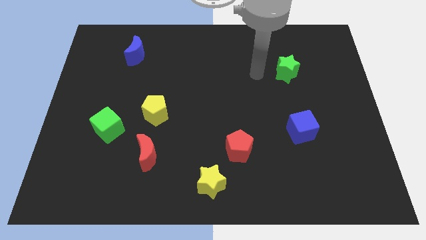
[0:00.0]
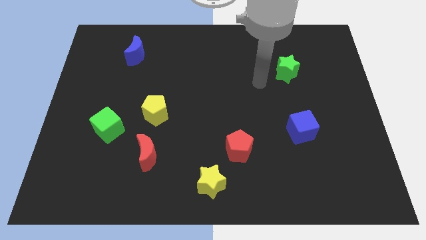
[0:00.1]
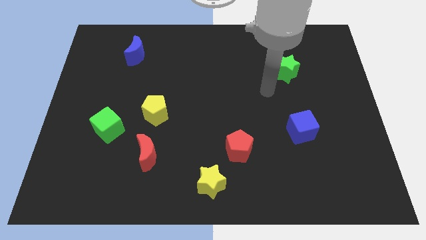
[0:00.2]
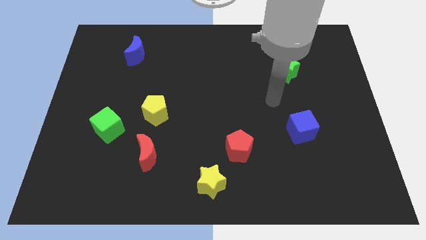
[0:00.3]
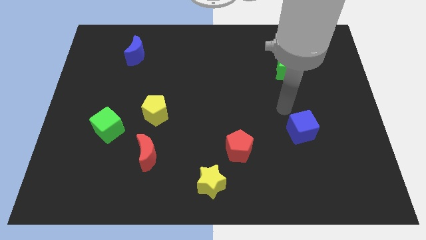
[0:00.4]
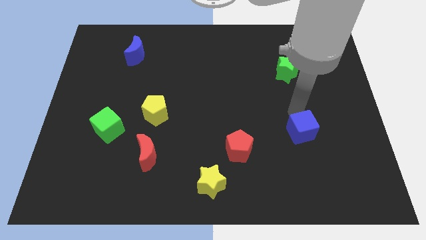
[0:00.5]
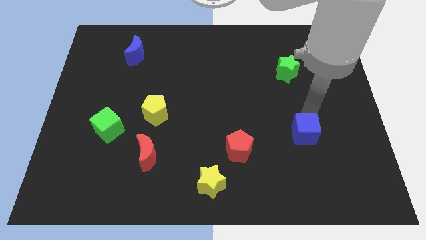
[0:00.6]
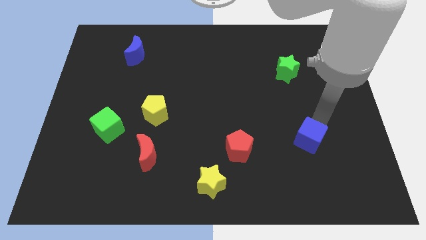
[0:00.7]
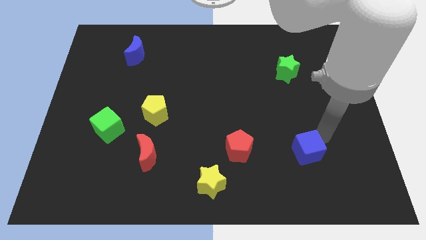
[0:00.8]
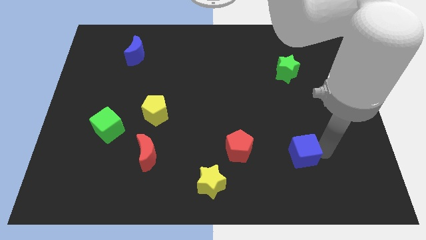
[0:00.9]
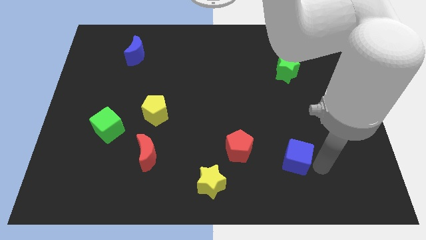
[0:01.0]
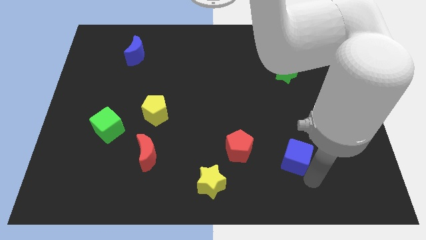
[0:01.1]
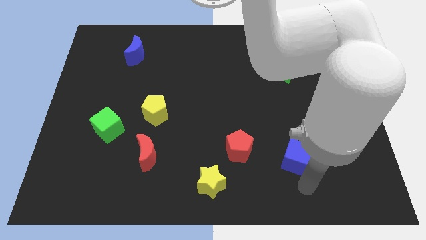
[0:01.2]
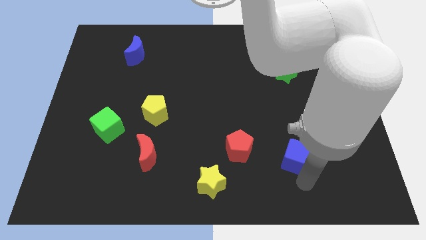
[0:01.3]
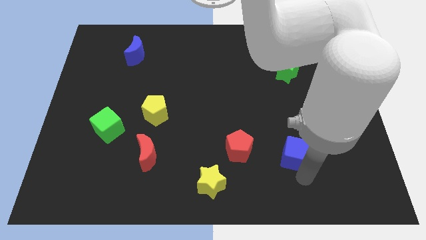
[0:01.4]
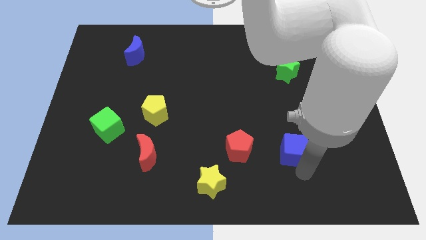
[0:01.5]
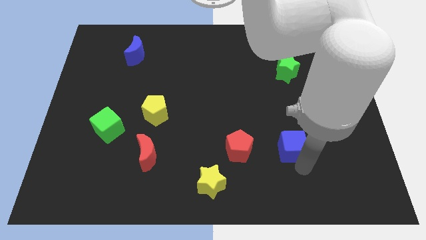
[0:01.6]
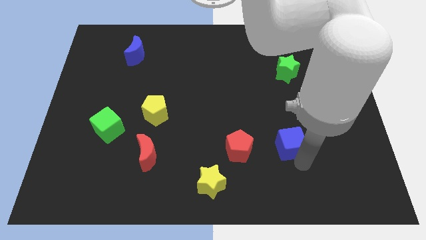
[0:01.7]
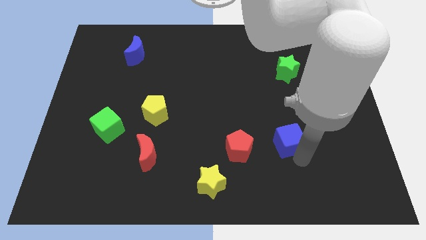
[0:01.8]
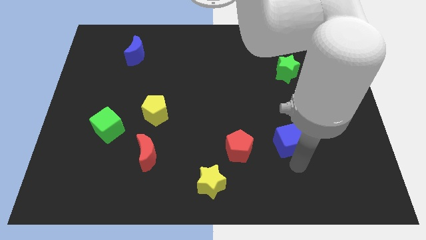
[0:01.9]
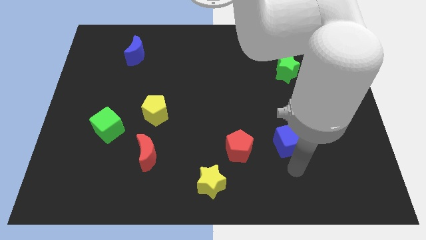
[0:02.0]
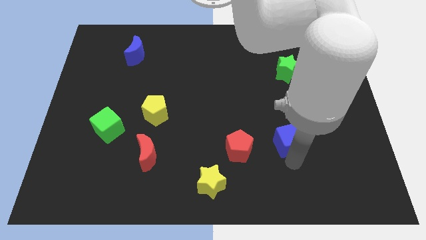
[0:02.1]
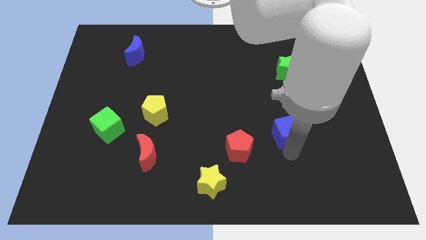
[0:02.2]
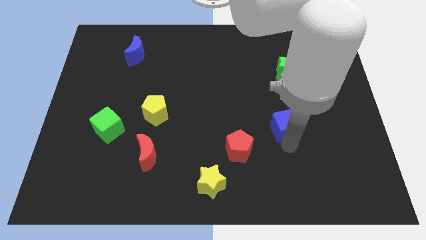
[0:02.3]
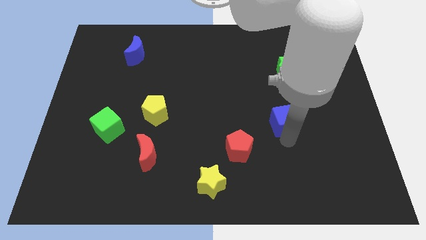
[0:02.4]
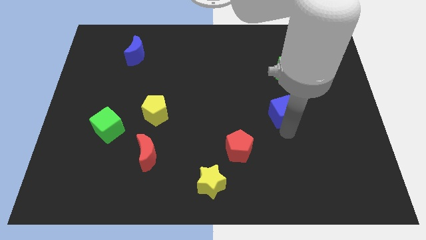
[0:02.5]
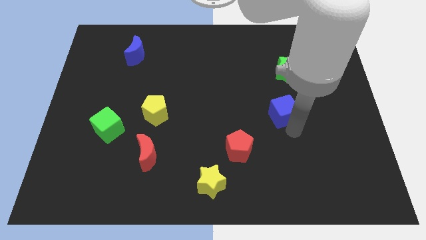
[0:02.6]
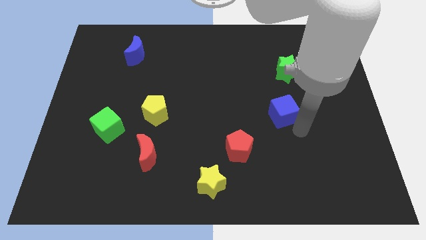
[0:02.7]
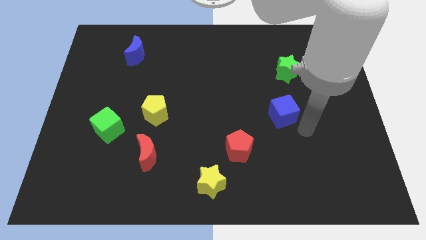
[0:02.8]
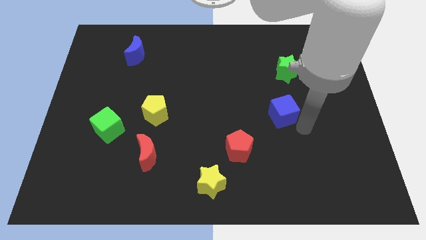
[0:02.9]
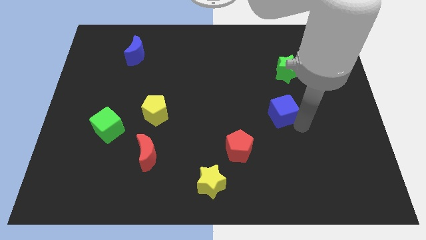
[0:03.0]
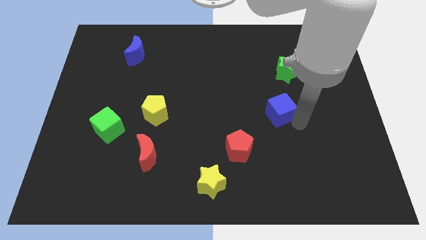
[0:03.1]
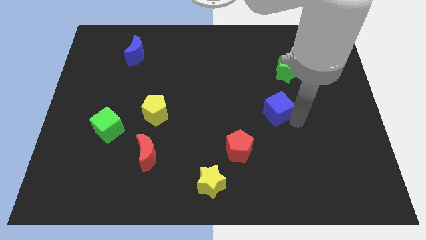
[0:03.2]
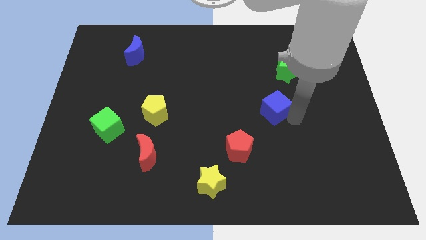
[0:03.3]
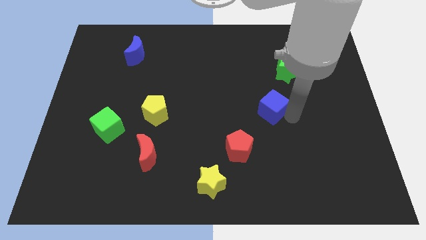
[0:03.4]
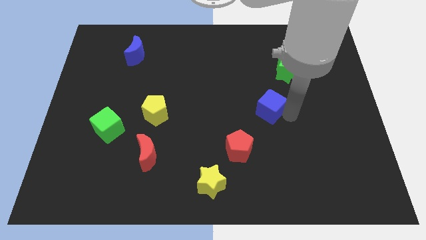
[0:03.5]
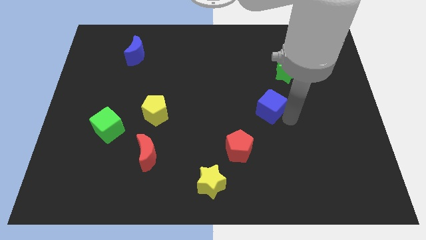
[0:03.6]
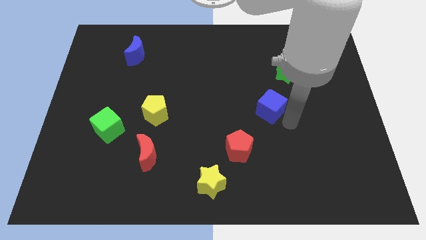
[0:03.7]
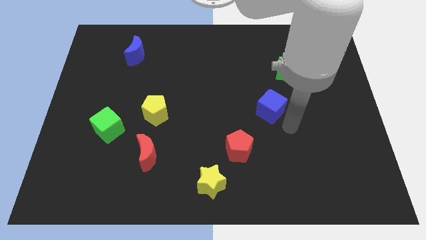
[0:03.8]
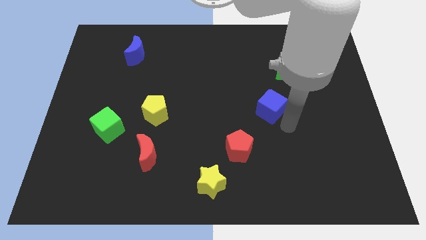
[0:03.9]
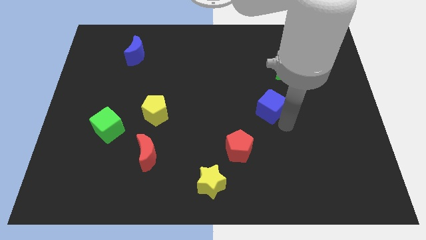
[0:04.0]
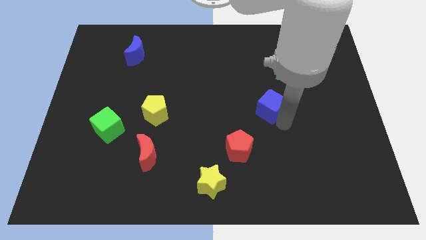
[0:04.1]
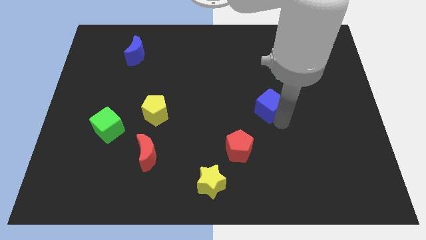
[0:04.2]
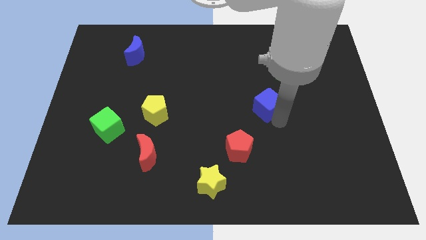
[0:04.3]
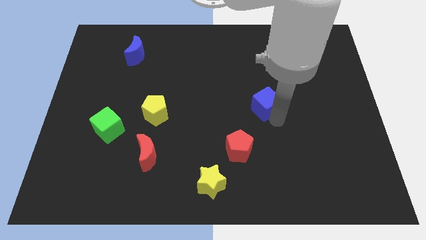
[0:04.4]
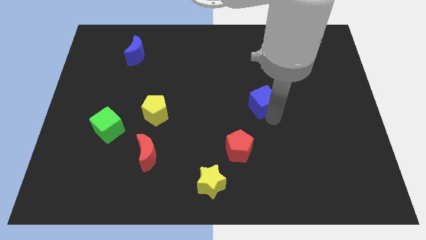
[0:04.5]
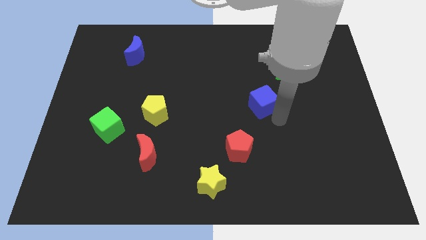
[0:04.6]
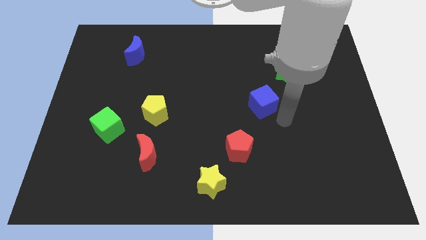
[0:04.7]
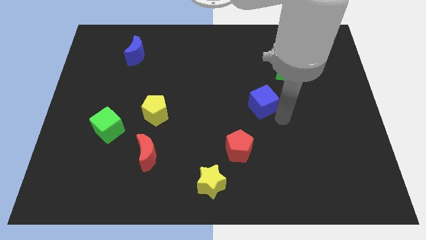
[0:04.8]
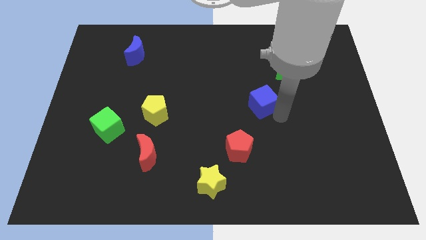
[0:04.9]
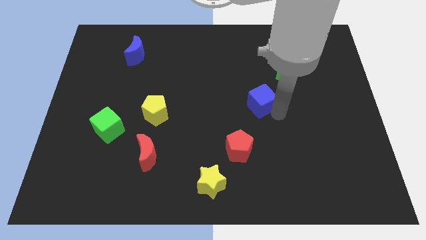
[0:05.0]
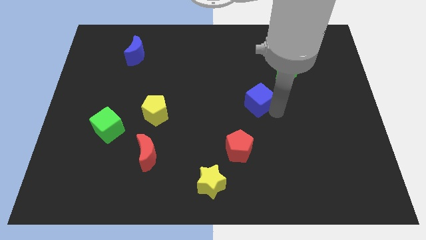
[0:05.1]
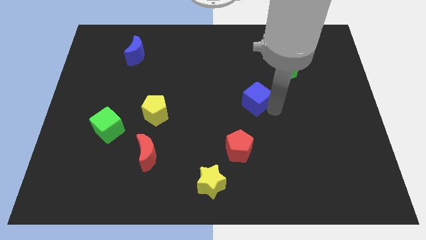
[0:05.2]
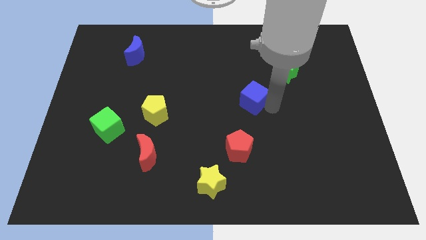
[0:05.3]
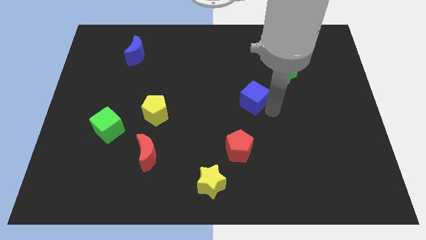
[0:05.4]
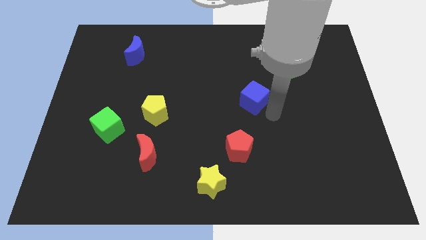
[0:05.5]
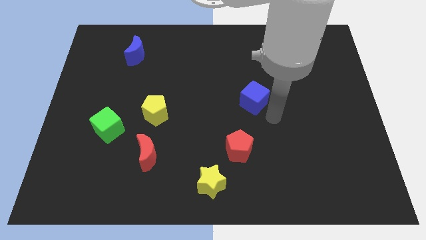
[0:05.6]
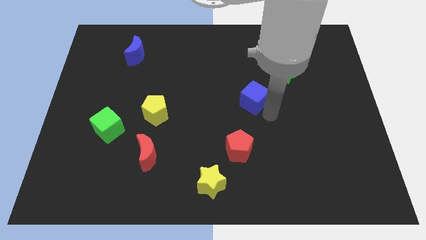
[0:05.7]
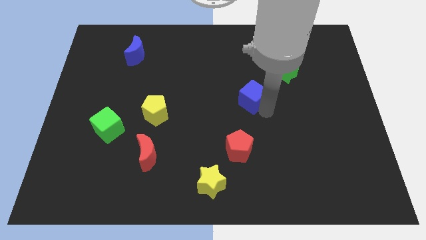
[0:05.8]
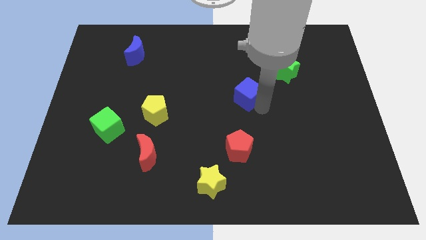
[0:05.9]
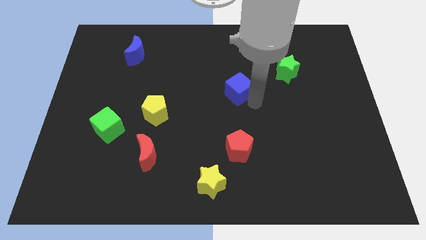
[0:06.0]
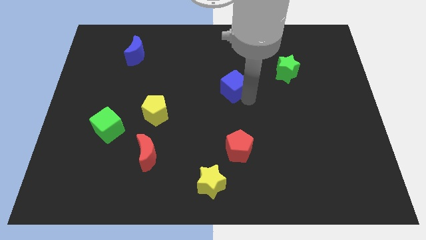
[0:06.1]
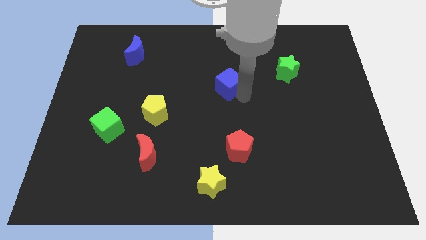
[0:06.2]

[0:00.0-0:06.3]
push the blue cube diagonally up and to the left

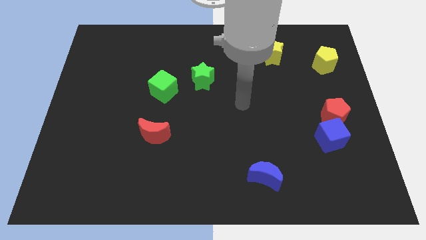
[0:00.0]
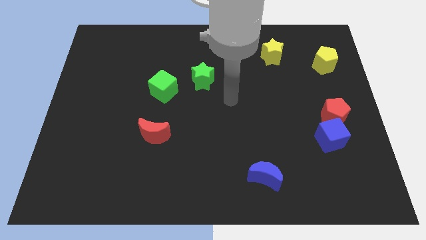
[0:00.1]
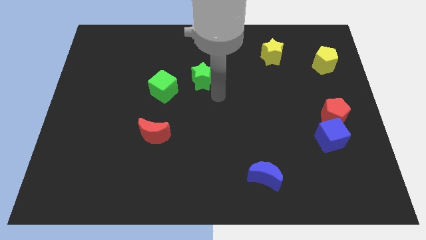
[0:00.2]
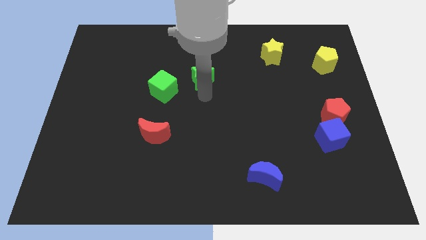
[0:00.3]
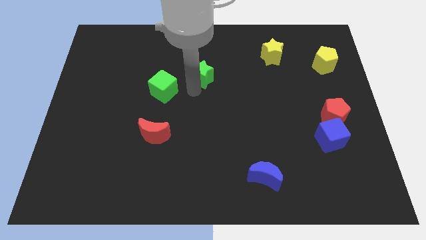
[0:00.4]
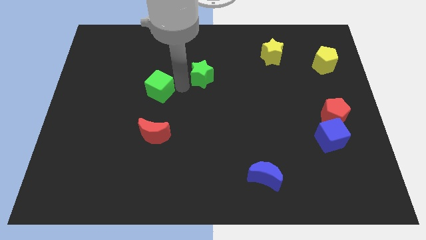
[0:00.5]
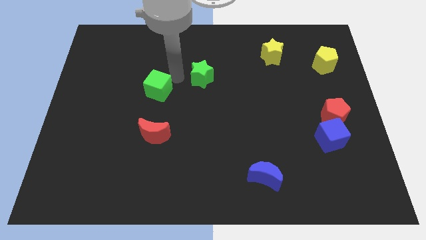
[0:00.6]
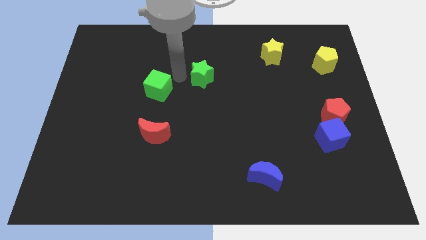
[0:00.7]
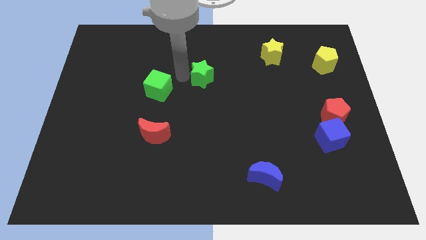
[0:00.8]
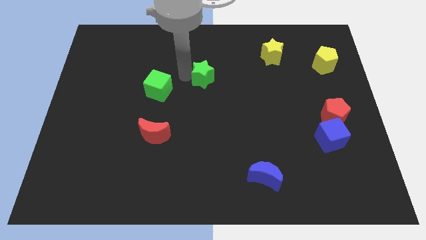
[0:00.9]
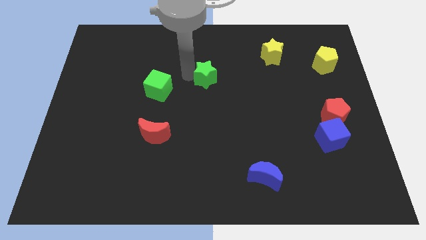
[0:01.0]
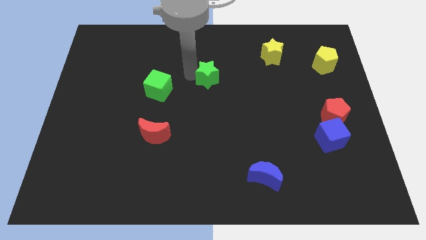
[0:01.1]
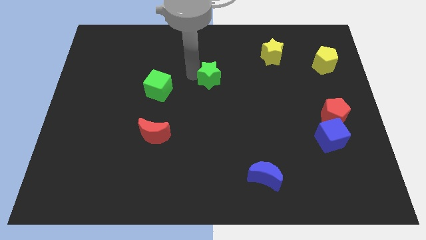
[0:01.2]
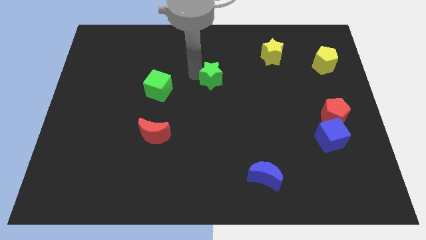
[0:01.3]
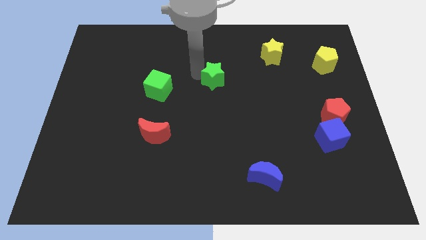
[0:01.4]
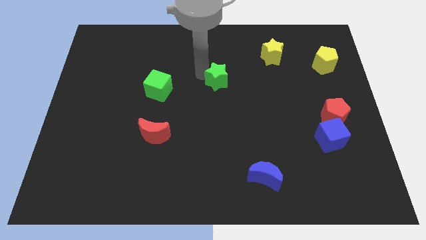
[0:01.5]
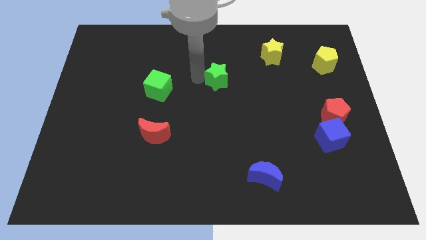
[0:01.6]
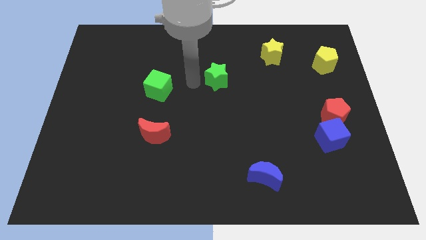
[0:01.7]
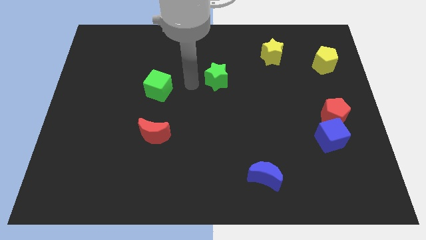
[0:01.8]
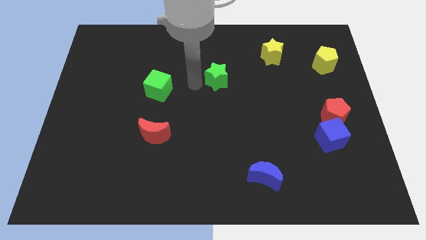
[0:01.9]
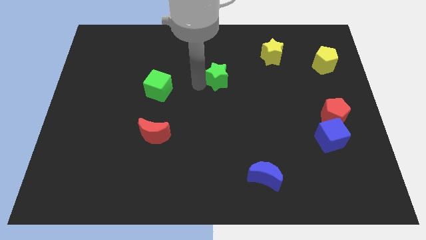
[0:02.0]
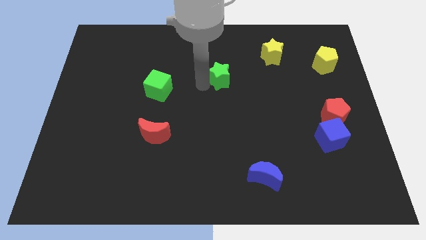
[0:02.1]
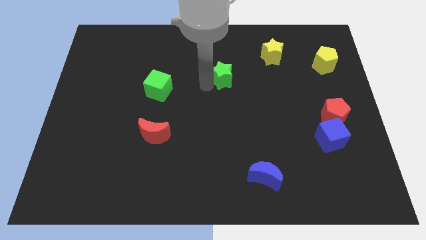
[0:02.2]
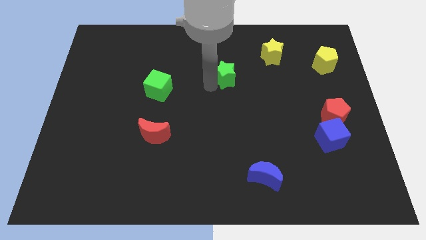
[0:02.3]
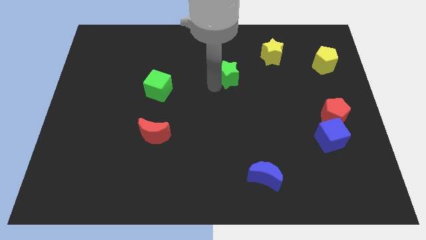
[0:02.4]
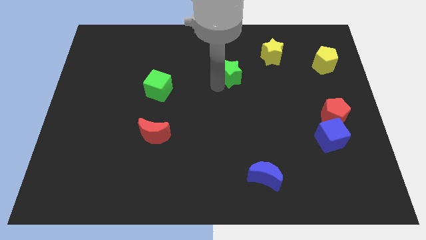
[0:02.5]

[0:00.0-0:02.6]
move the green star to the right slightly
